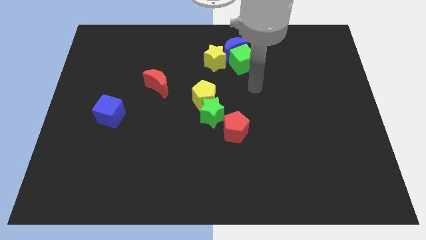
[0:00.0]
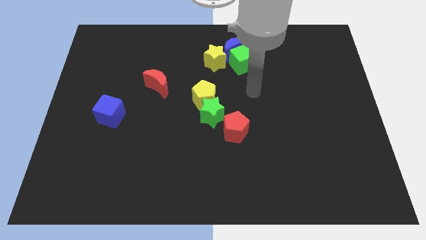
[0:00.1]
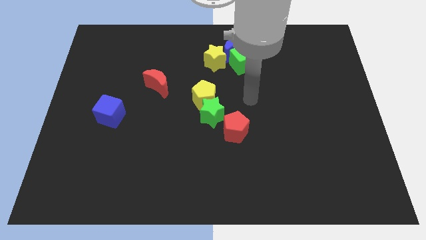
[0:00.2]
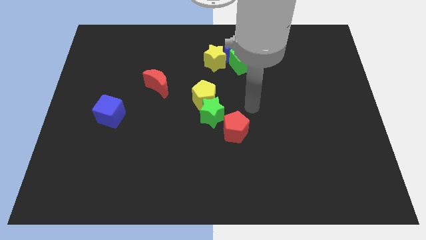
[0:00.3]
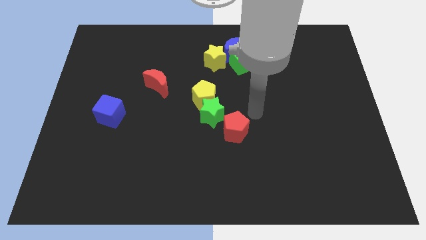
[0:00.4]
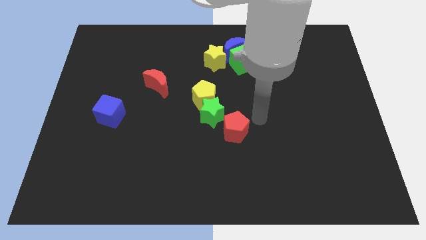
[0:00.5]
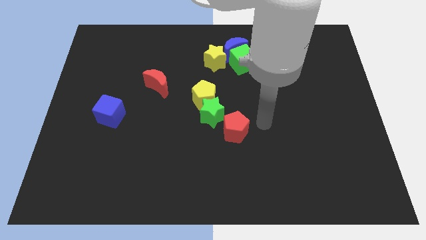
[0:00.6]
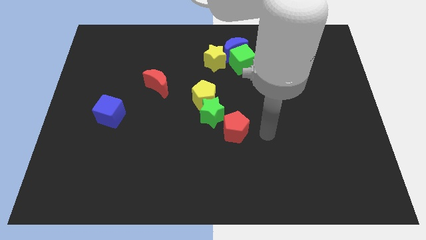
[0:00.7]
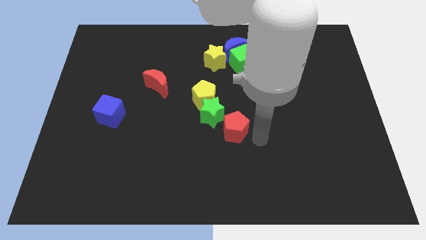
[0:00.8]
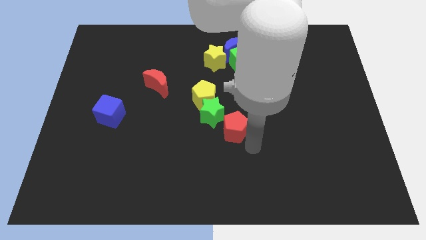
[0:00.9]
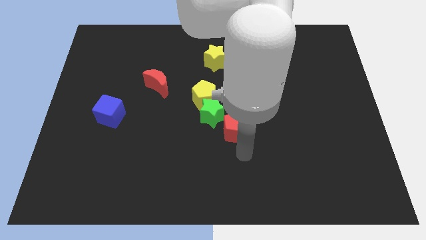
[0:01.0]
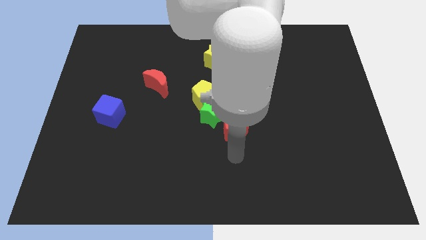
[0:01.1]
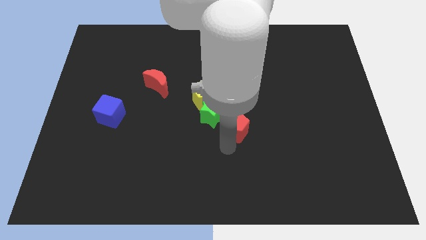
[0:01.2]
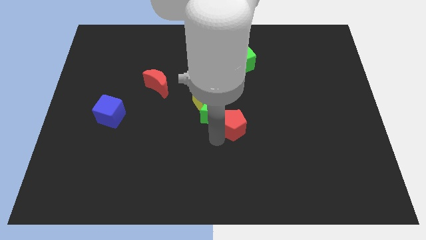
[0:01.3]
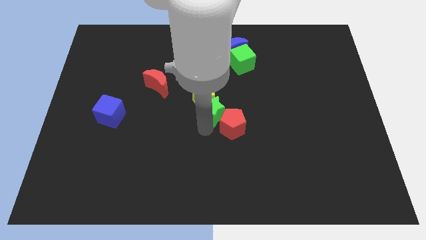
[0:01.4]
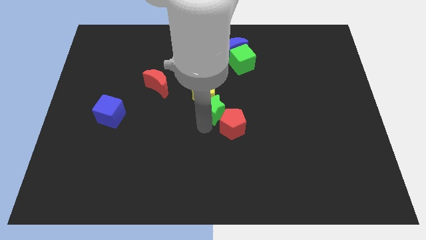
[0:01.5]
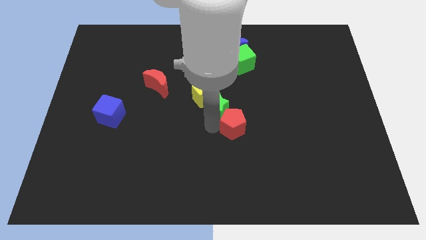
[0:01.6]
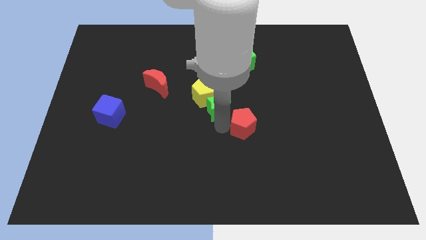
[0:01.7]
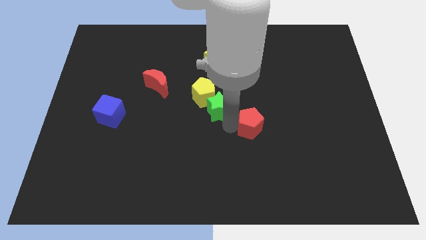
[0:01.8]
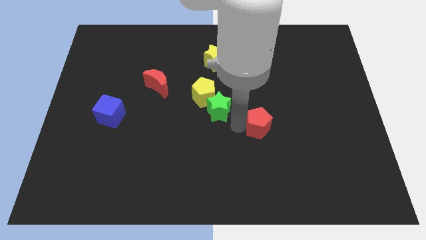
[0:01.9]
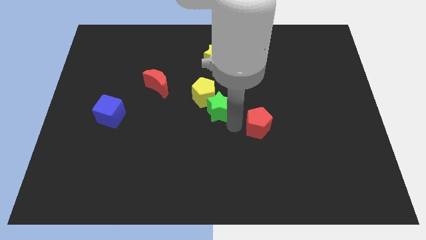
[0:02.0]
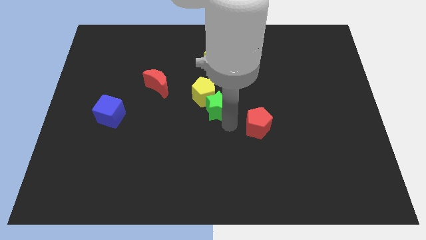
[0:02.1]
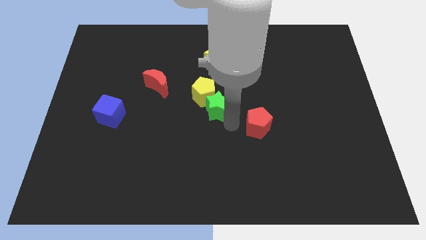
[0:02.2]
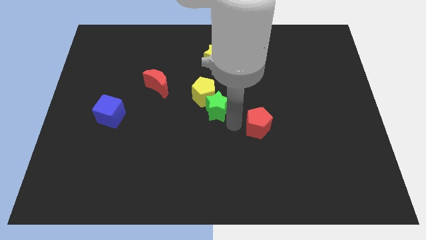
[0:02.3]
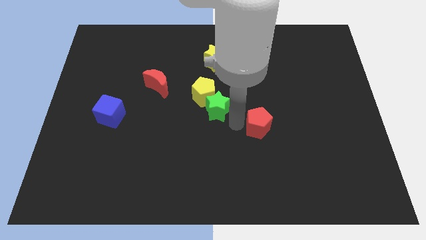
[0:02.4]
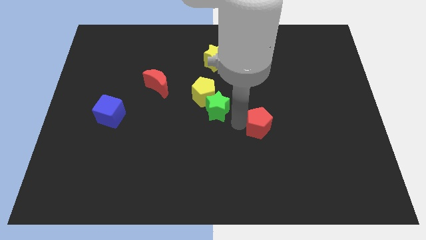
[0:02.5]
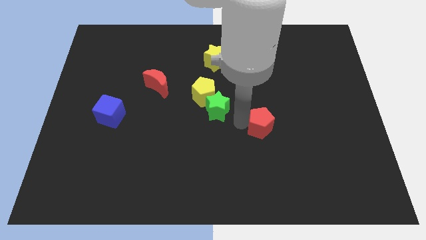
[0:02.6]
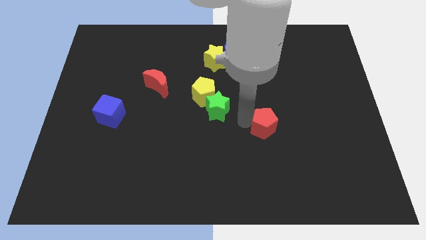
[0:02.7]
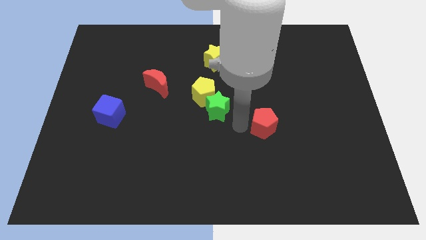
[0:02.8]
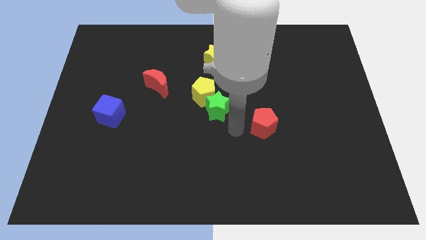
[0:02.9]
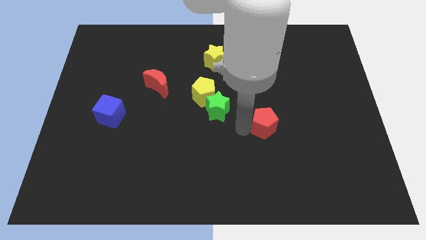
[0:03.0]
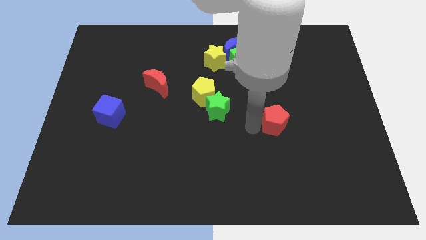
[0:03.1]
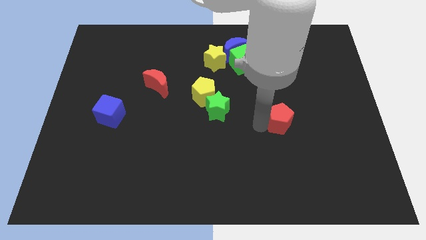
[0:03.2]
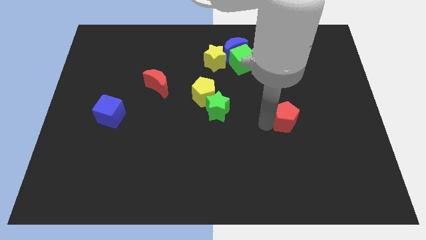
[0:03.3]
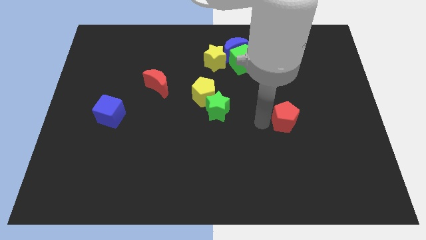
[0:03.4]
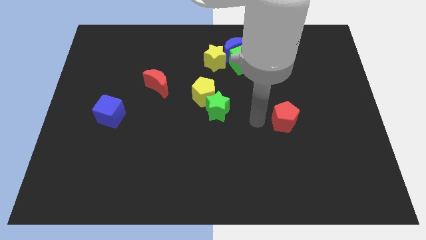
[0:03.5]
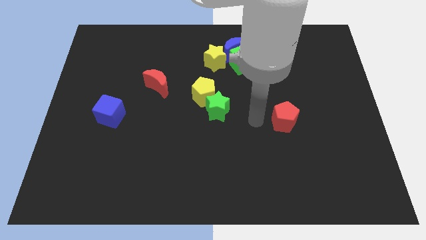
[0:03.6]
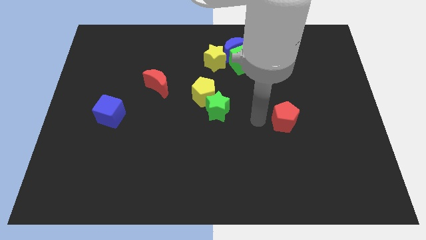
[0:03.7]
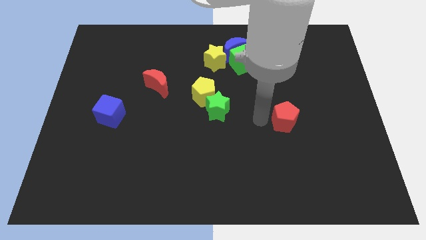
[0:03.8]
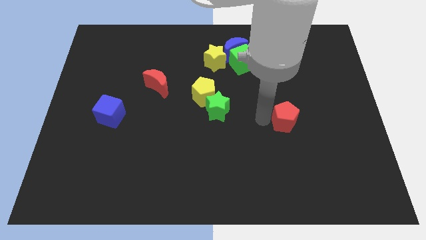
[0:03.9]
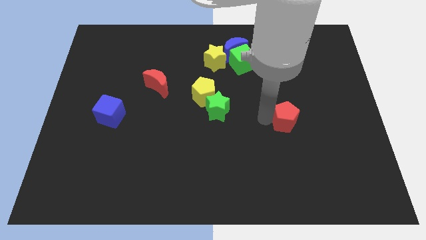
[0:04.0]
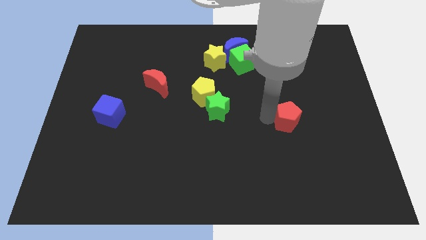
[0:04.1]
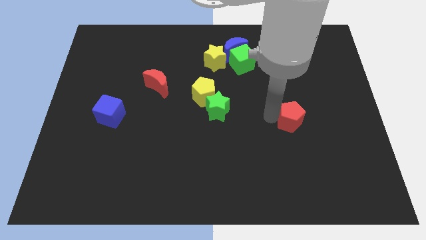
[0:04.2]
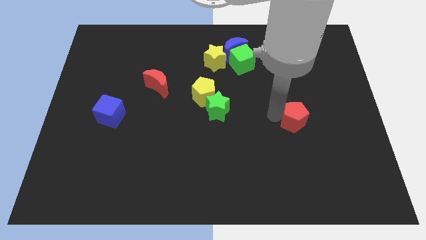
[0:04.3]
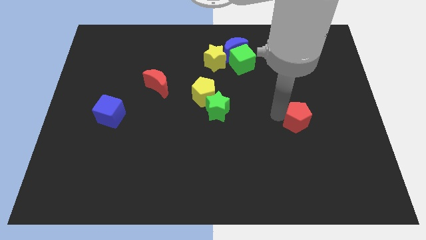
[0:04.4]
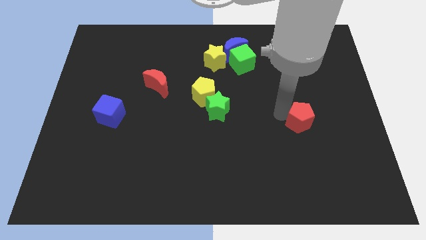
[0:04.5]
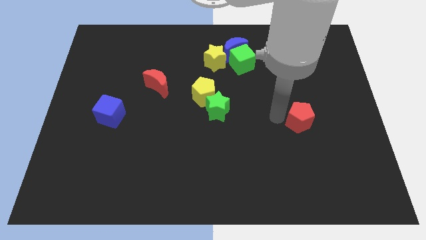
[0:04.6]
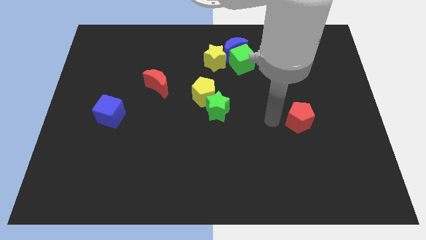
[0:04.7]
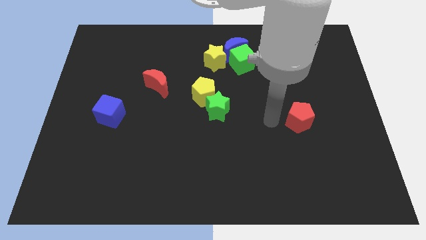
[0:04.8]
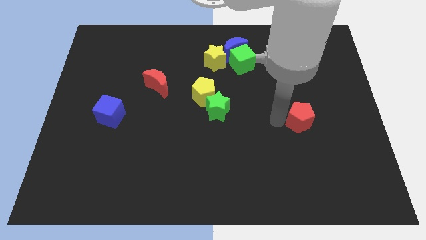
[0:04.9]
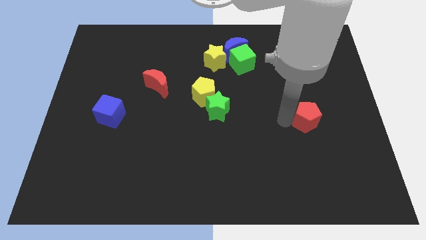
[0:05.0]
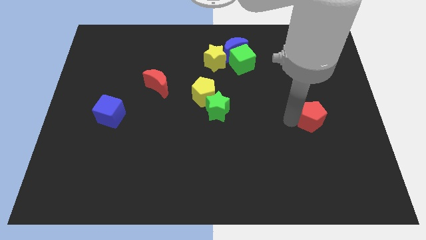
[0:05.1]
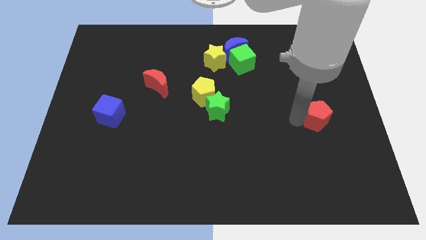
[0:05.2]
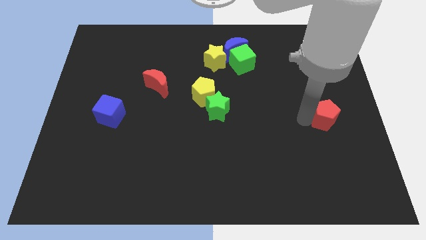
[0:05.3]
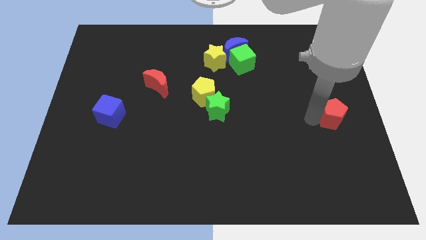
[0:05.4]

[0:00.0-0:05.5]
push the red pentagon to the center right
